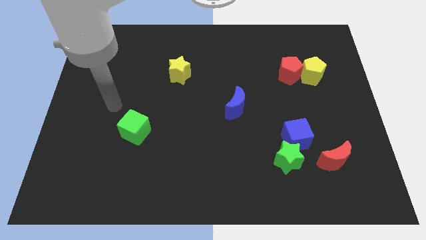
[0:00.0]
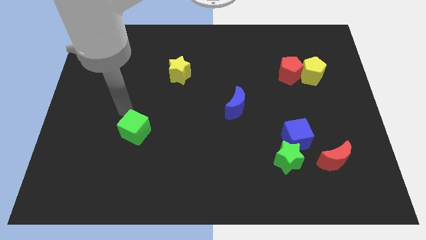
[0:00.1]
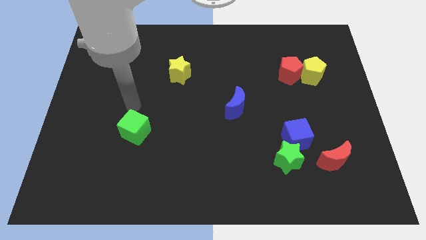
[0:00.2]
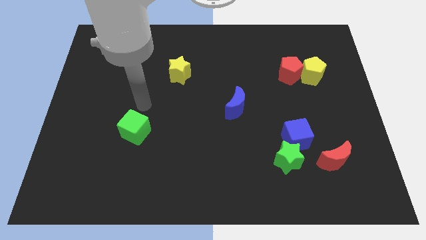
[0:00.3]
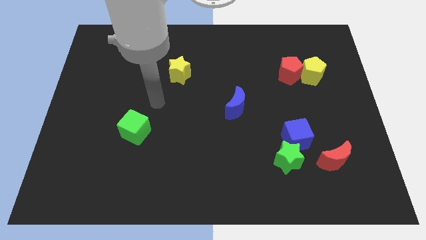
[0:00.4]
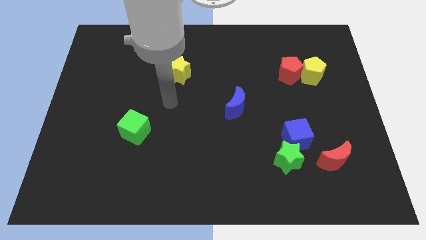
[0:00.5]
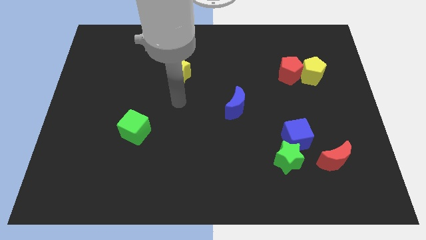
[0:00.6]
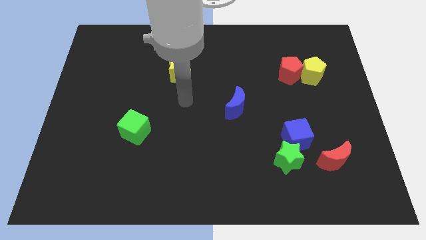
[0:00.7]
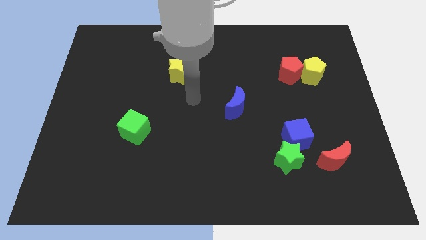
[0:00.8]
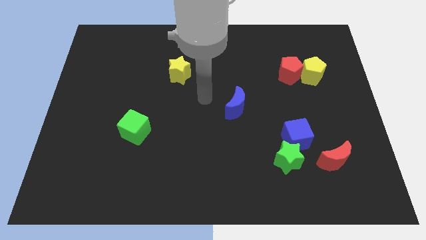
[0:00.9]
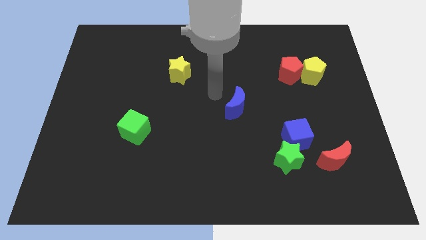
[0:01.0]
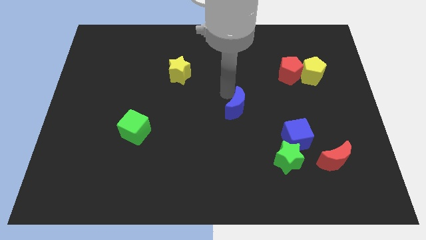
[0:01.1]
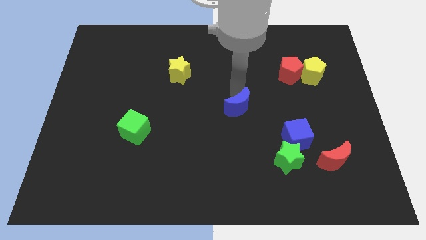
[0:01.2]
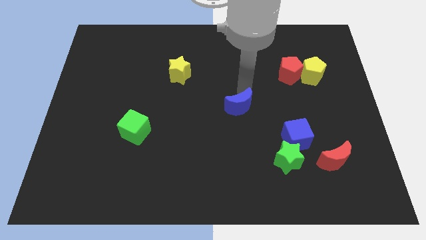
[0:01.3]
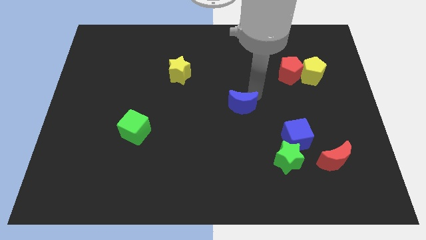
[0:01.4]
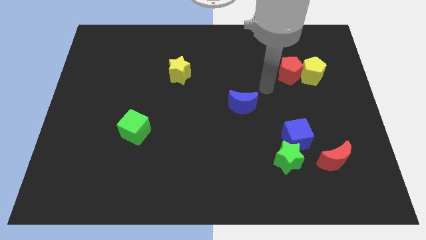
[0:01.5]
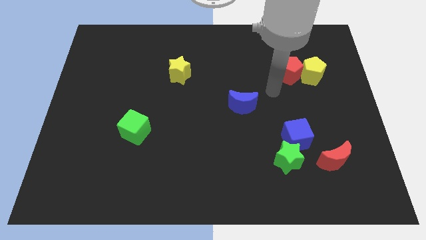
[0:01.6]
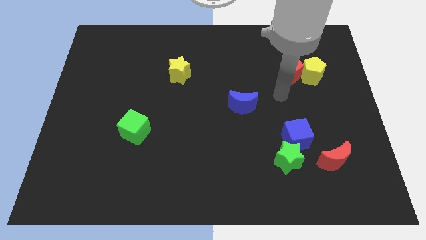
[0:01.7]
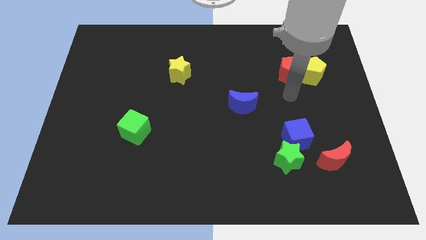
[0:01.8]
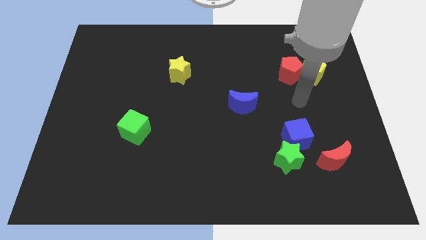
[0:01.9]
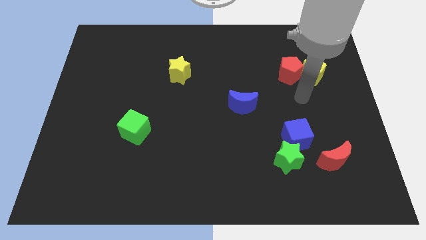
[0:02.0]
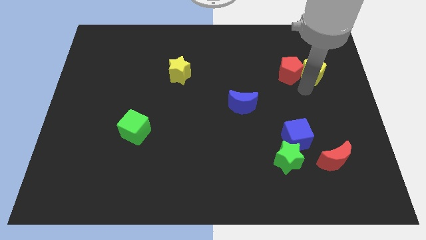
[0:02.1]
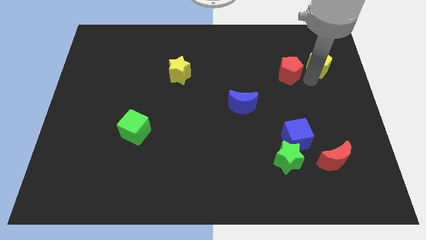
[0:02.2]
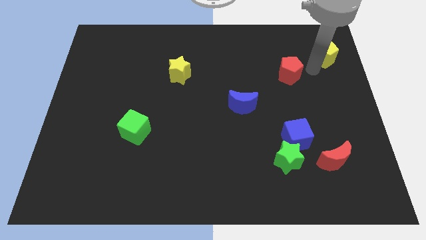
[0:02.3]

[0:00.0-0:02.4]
pull the red pentagon apart from the yellow pentagon

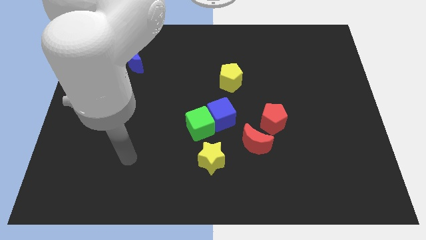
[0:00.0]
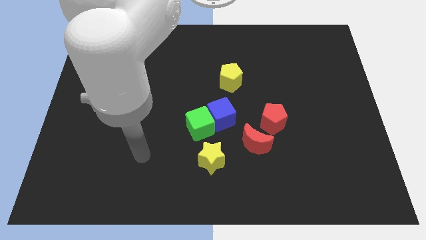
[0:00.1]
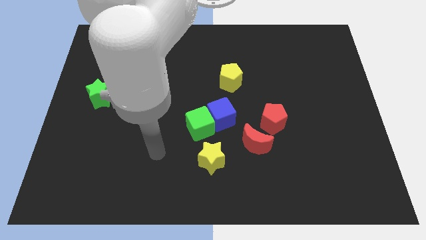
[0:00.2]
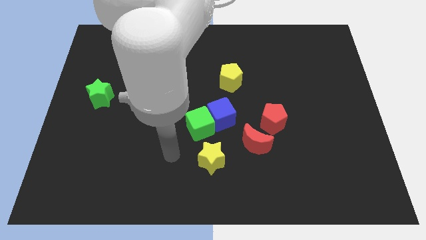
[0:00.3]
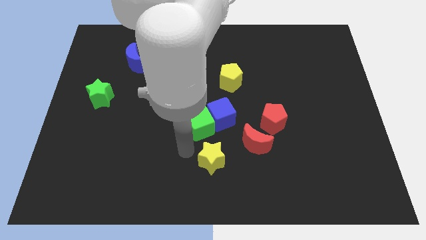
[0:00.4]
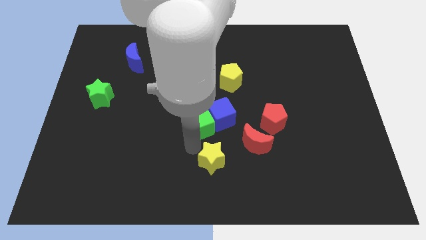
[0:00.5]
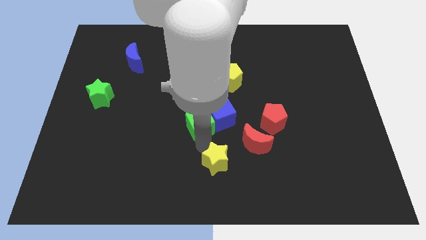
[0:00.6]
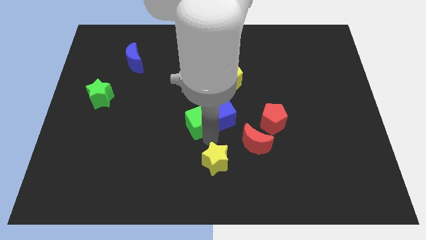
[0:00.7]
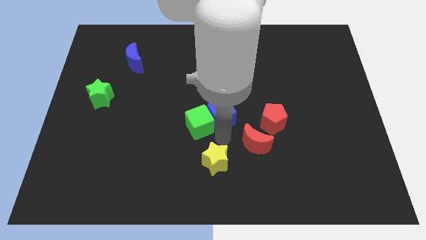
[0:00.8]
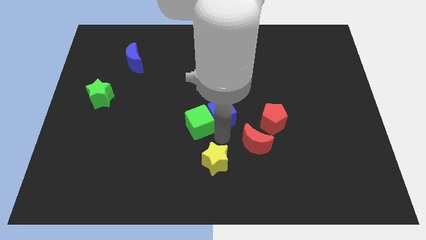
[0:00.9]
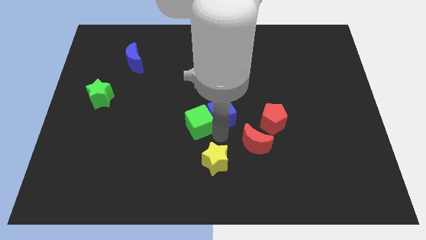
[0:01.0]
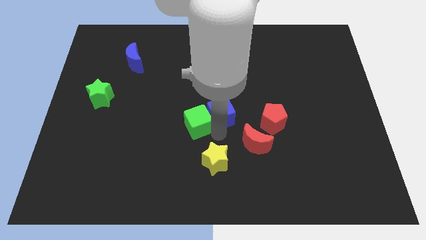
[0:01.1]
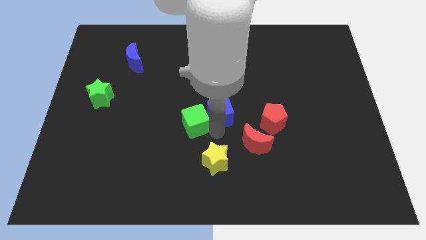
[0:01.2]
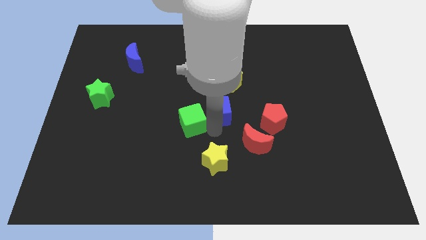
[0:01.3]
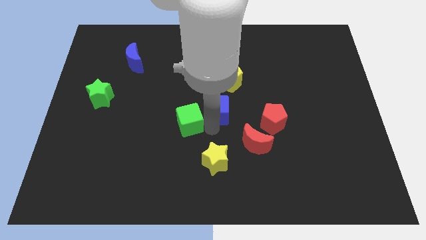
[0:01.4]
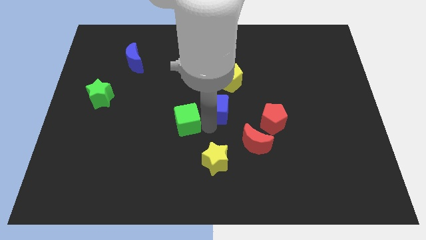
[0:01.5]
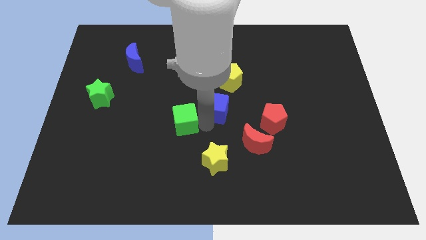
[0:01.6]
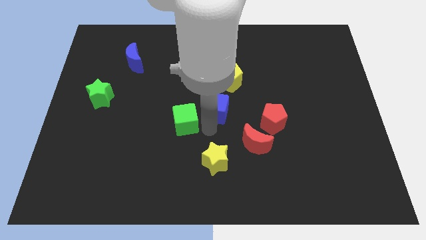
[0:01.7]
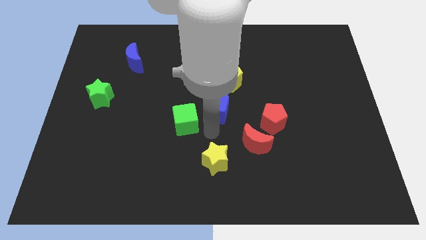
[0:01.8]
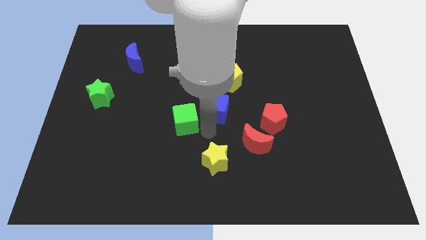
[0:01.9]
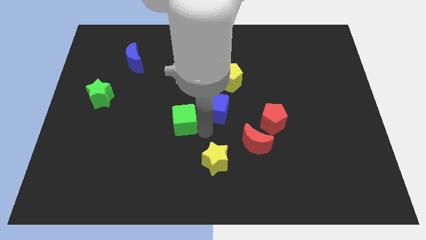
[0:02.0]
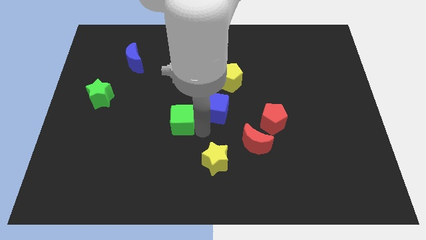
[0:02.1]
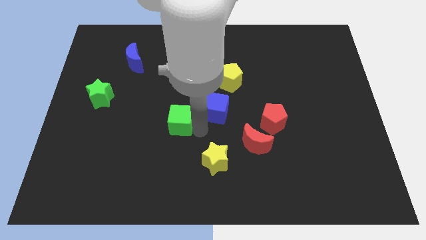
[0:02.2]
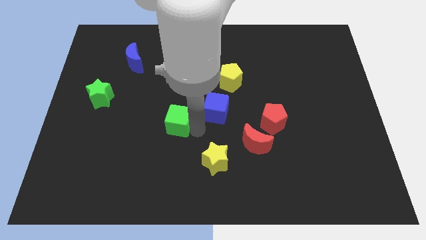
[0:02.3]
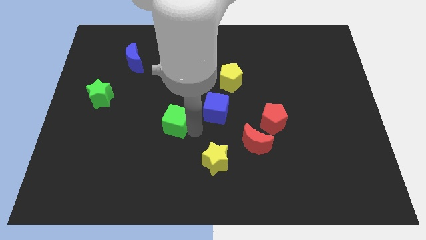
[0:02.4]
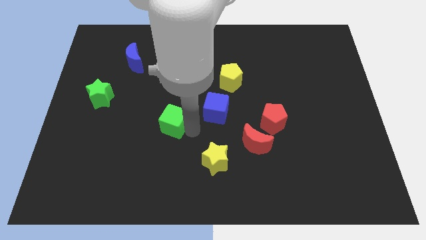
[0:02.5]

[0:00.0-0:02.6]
separate the green cube from the blue cube and yellow star

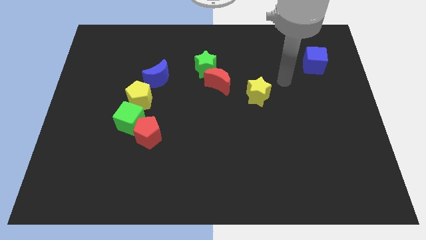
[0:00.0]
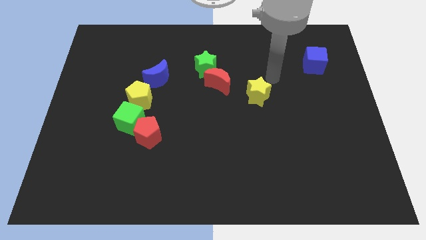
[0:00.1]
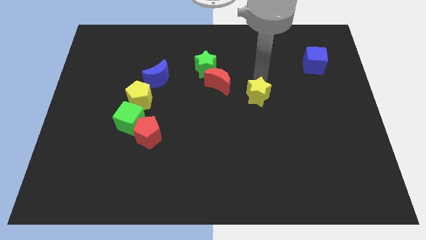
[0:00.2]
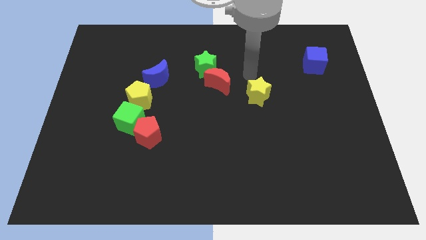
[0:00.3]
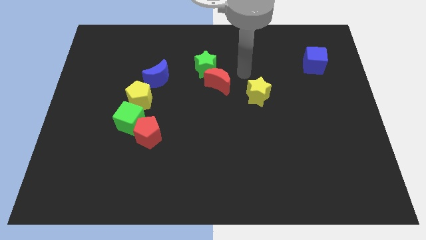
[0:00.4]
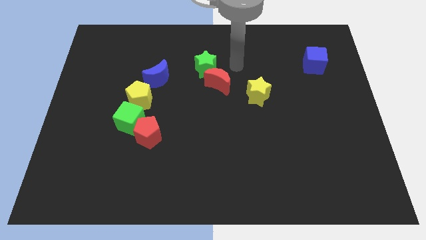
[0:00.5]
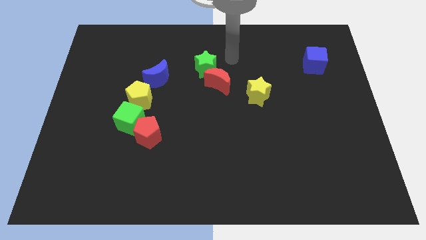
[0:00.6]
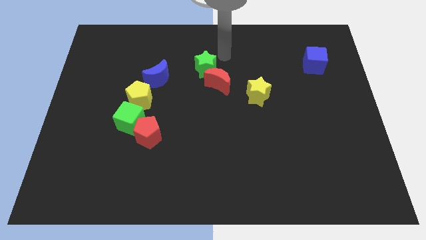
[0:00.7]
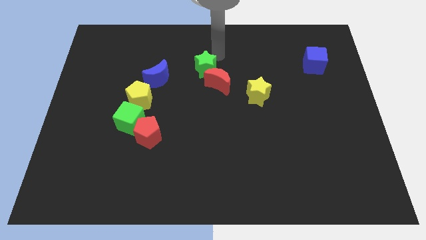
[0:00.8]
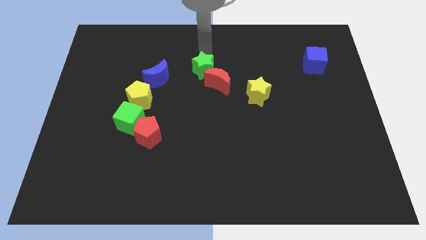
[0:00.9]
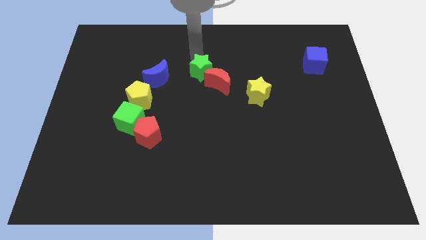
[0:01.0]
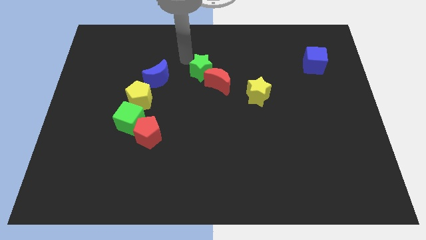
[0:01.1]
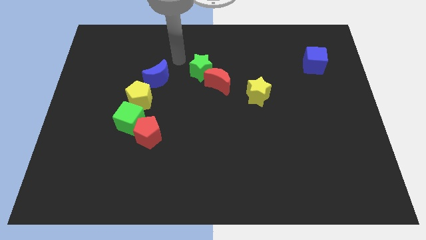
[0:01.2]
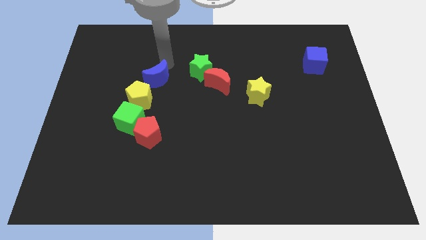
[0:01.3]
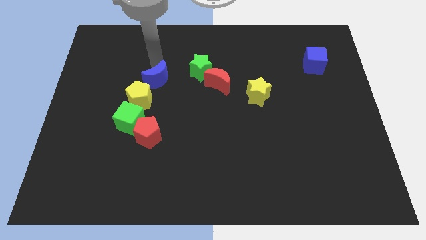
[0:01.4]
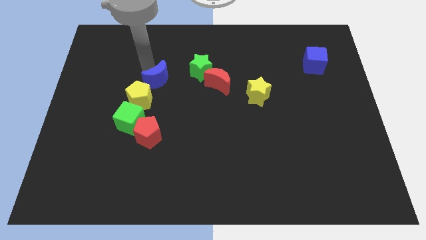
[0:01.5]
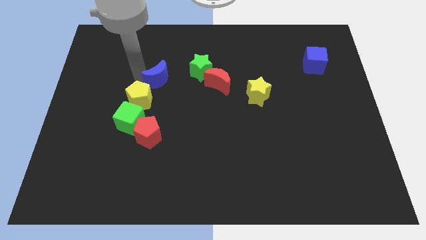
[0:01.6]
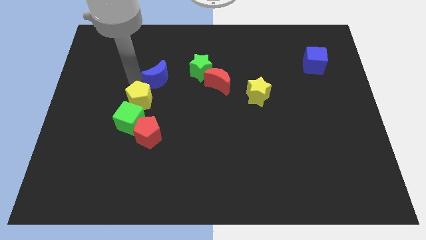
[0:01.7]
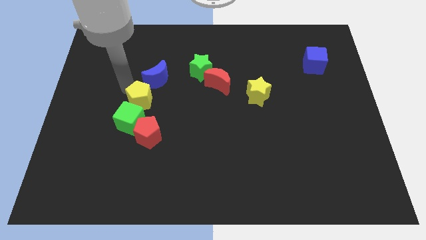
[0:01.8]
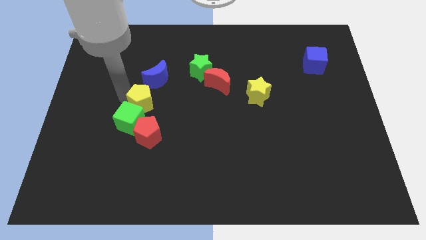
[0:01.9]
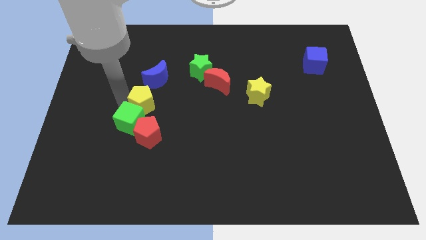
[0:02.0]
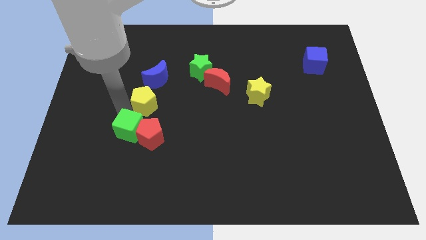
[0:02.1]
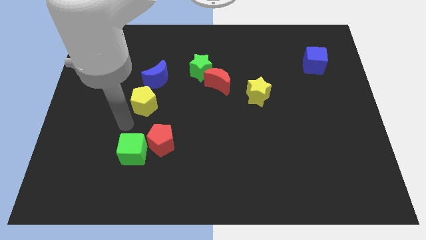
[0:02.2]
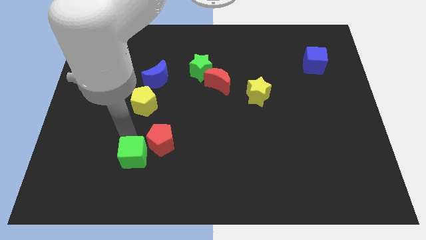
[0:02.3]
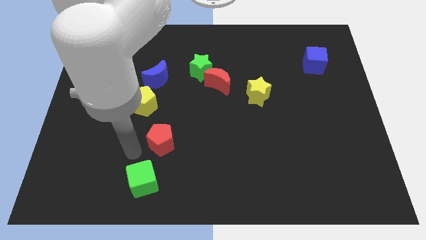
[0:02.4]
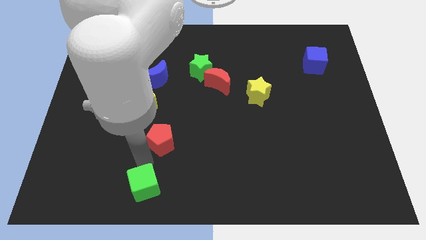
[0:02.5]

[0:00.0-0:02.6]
move the red pentagon away from the green cube

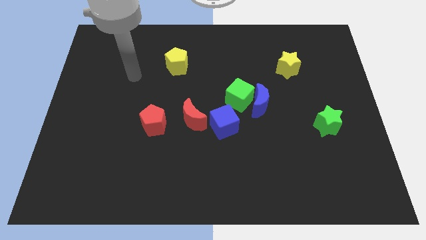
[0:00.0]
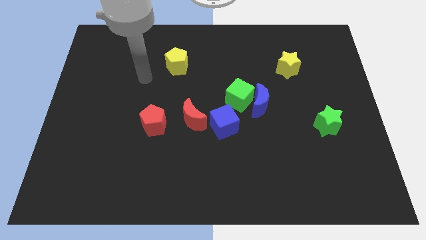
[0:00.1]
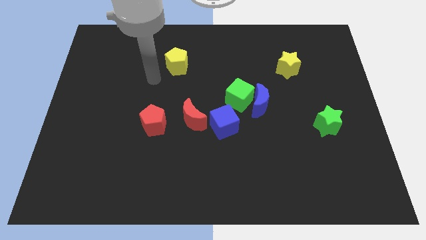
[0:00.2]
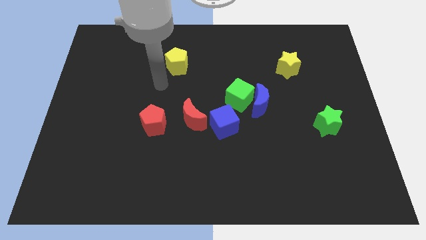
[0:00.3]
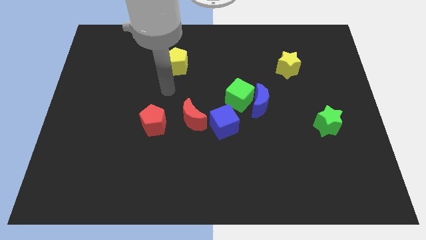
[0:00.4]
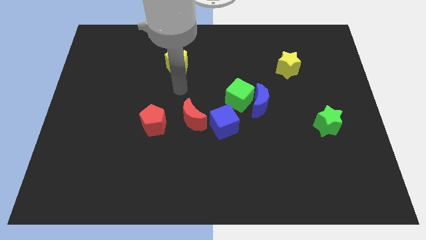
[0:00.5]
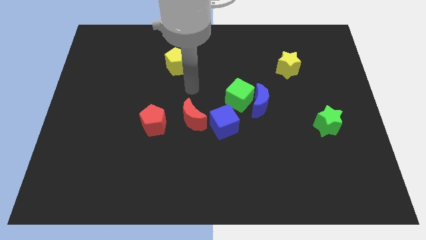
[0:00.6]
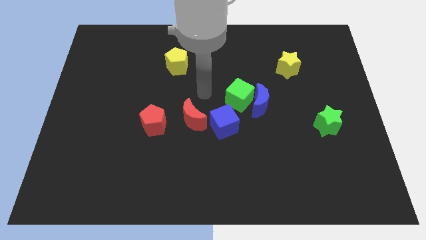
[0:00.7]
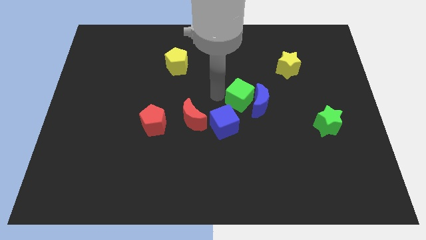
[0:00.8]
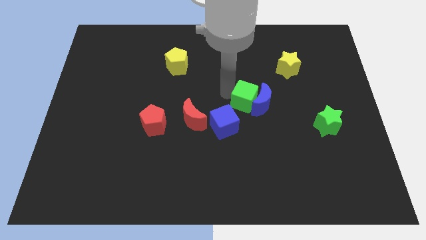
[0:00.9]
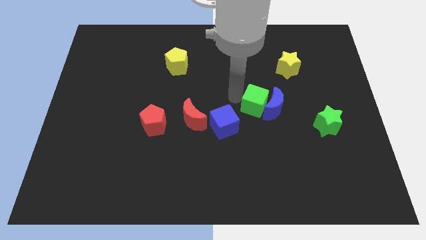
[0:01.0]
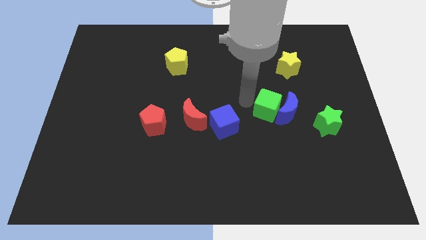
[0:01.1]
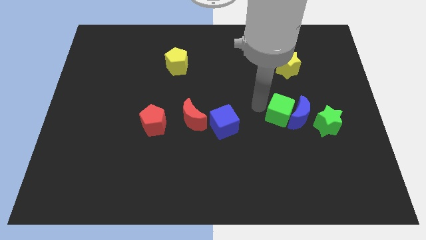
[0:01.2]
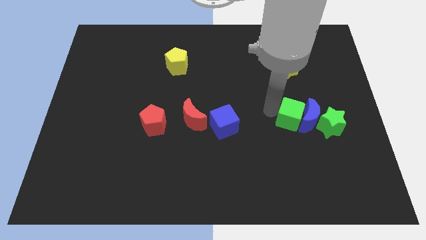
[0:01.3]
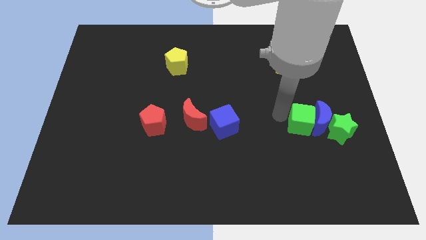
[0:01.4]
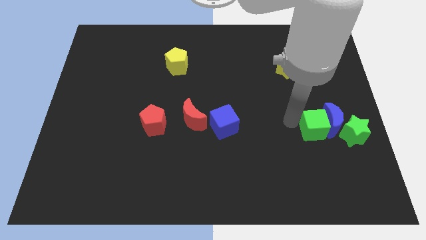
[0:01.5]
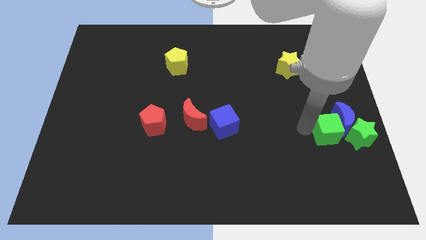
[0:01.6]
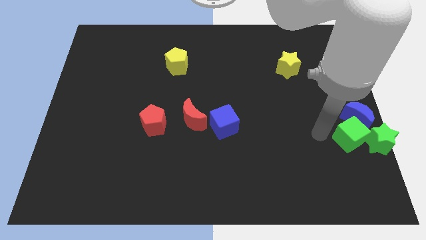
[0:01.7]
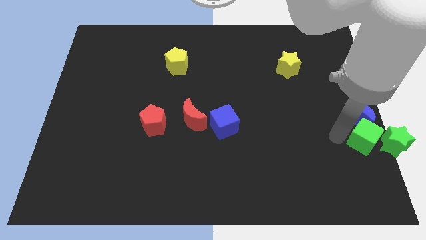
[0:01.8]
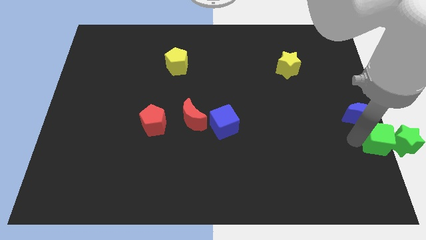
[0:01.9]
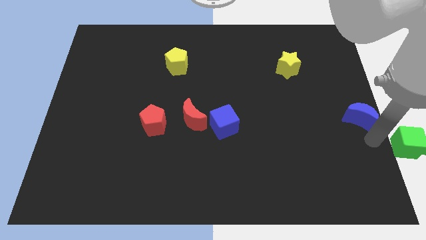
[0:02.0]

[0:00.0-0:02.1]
pull the blue moon apart from the green cube
